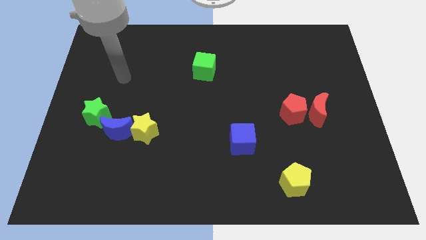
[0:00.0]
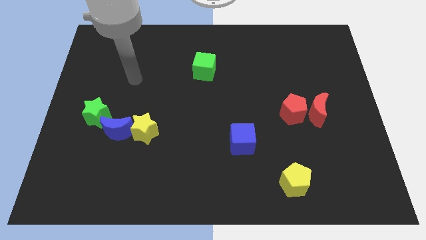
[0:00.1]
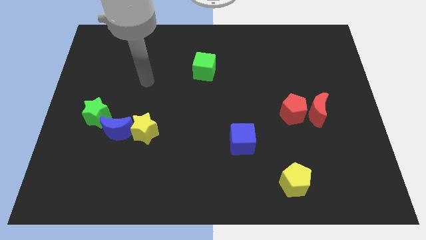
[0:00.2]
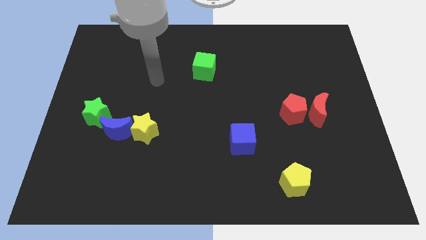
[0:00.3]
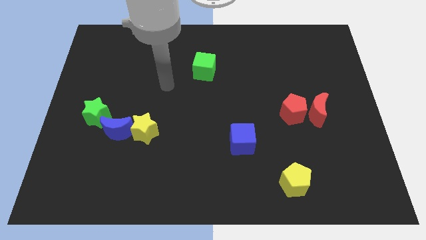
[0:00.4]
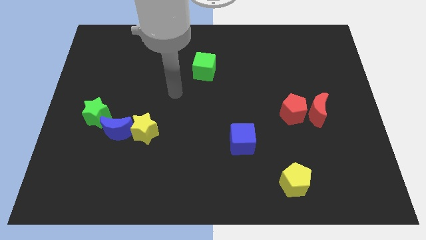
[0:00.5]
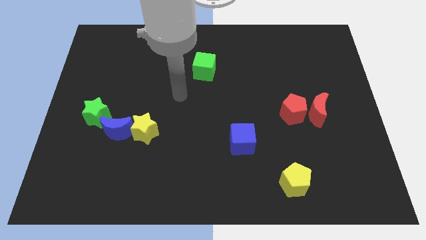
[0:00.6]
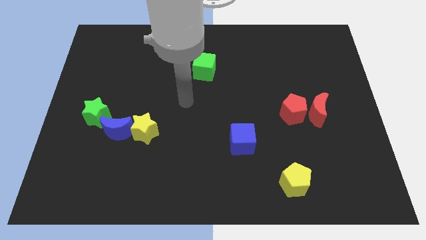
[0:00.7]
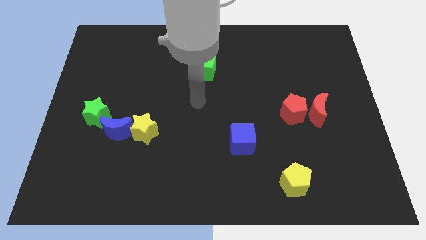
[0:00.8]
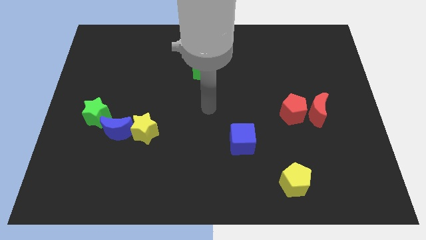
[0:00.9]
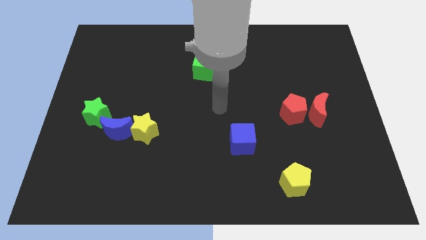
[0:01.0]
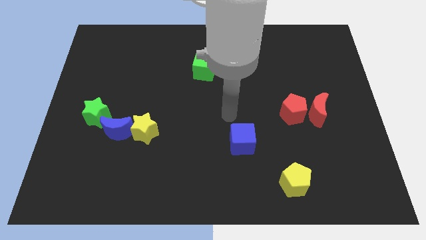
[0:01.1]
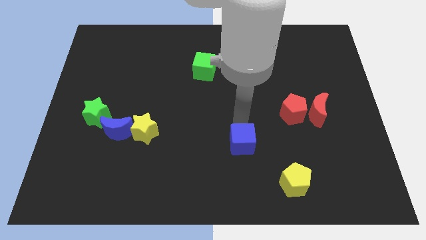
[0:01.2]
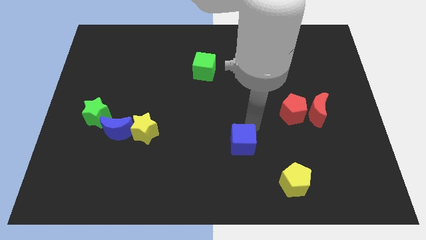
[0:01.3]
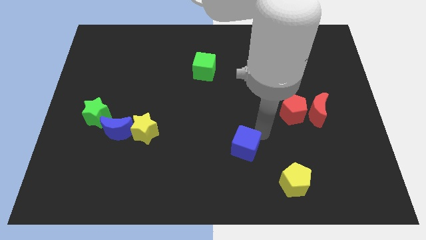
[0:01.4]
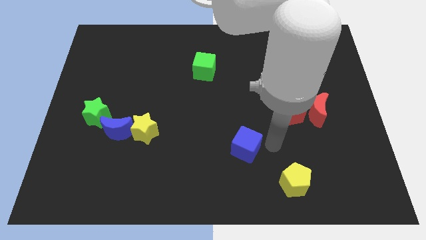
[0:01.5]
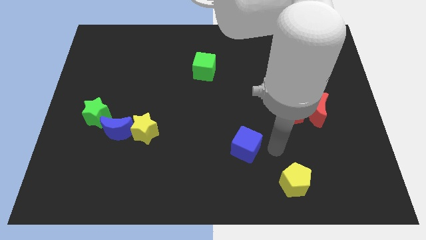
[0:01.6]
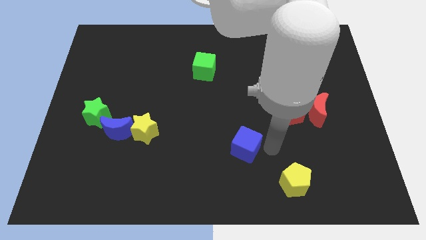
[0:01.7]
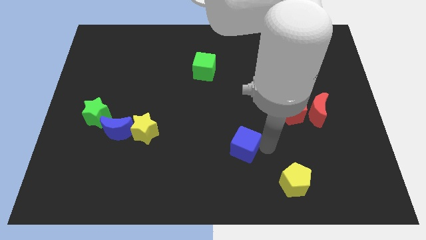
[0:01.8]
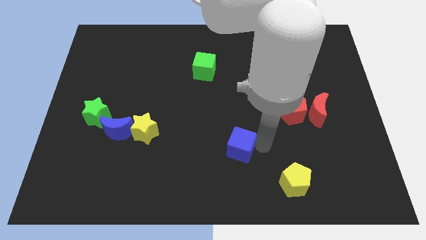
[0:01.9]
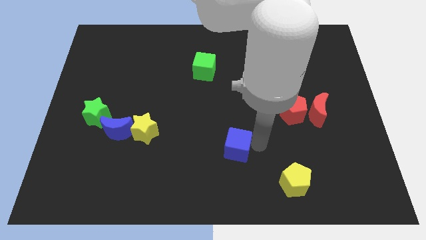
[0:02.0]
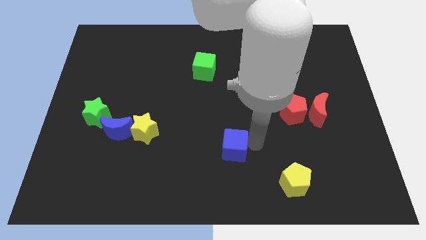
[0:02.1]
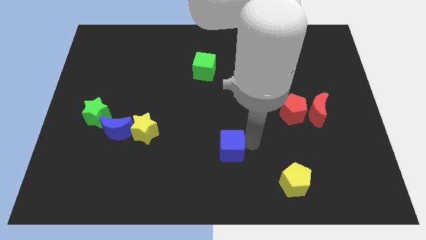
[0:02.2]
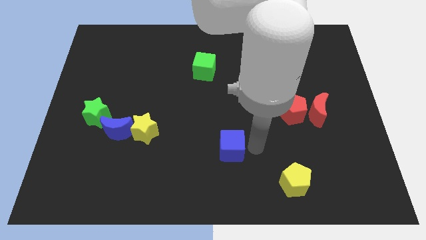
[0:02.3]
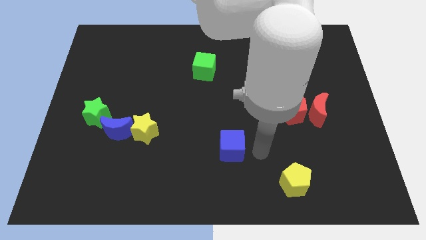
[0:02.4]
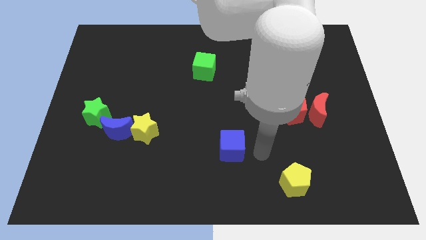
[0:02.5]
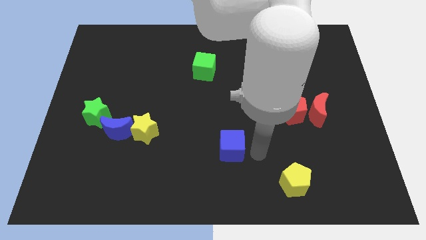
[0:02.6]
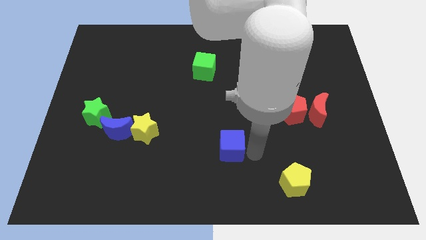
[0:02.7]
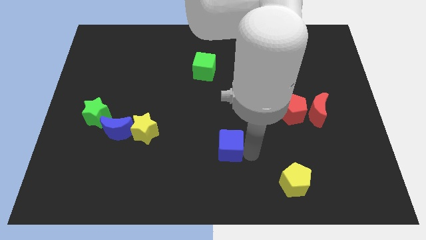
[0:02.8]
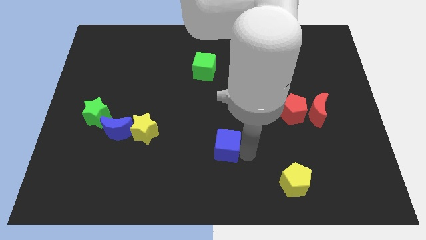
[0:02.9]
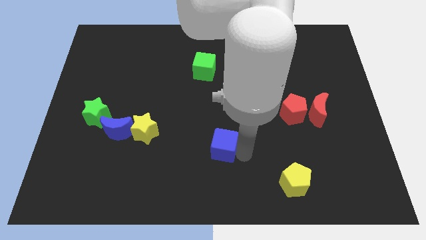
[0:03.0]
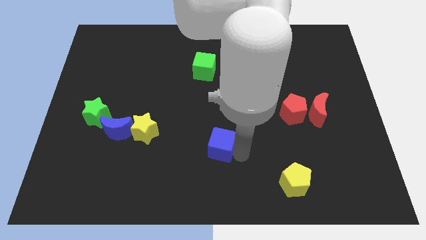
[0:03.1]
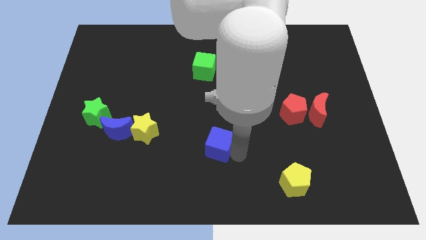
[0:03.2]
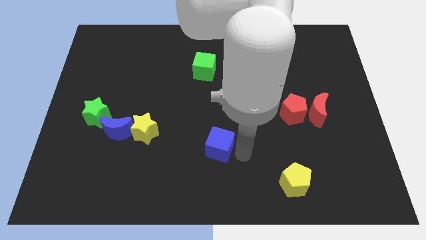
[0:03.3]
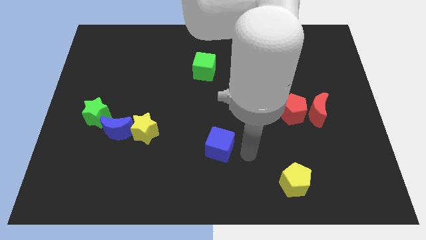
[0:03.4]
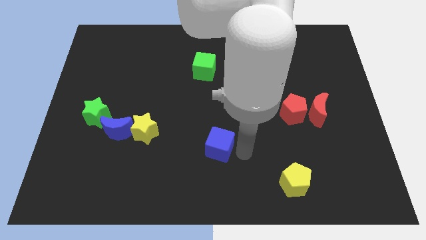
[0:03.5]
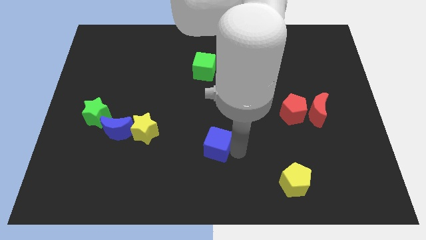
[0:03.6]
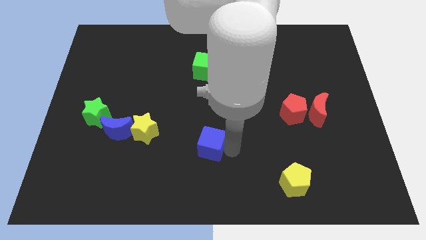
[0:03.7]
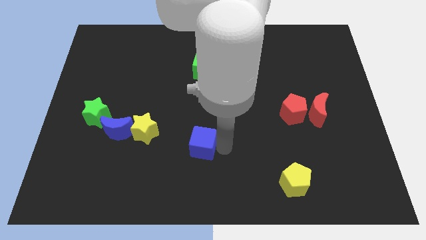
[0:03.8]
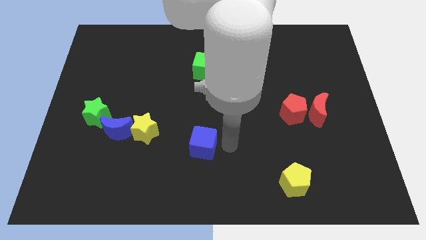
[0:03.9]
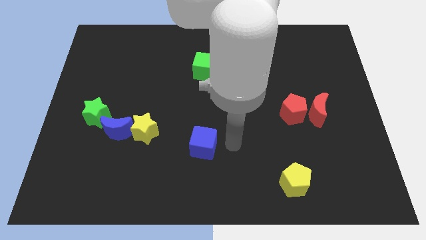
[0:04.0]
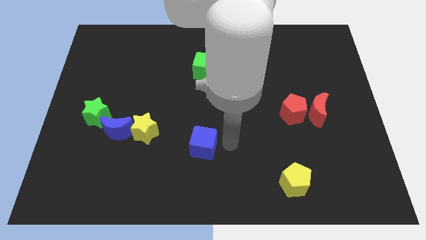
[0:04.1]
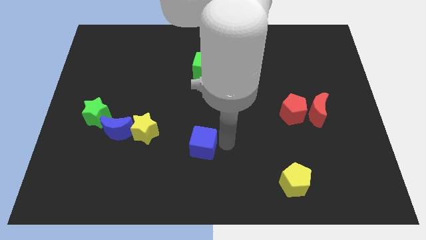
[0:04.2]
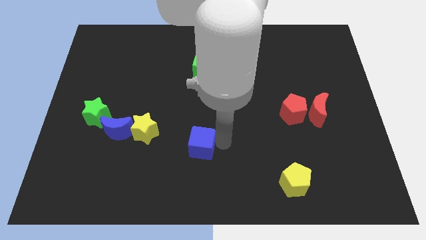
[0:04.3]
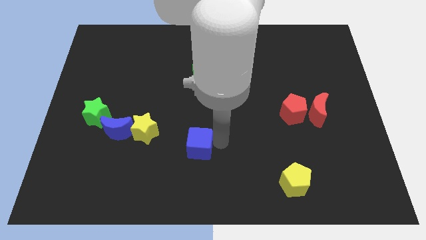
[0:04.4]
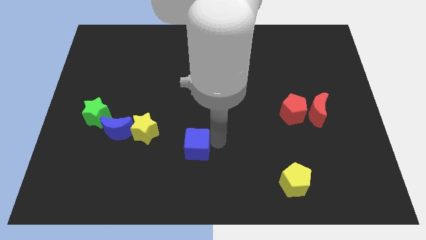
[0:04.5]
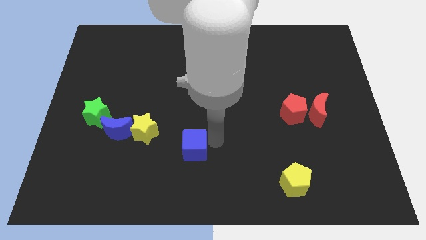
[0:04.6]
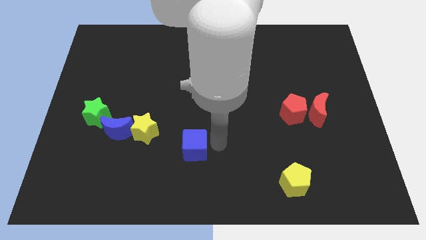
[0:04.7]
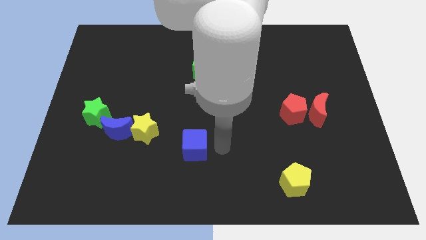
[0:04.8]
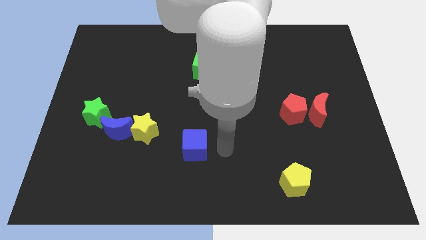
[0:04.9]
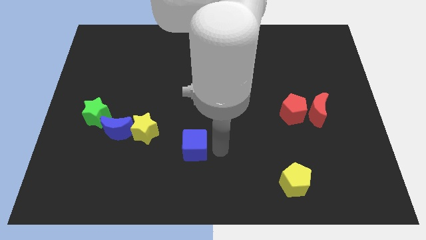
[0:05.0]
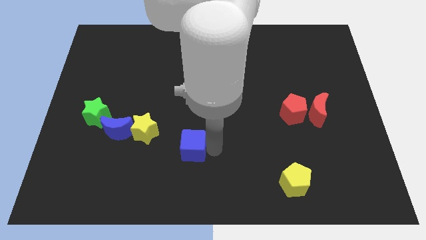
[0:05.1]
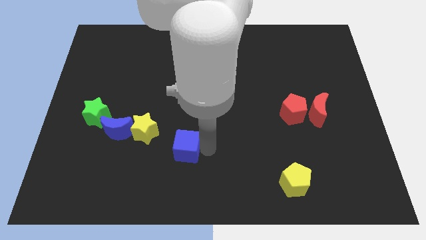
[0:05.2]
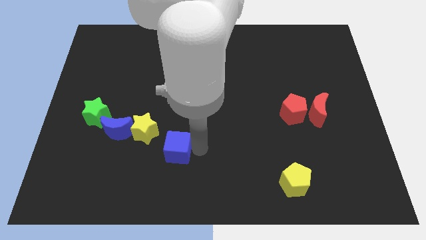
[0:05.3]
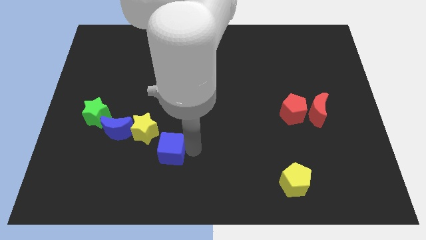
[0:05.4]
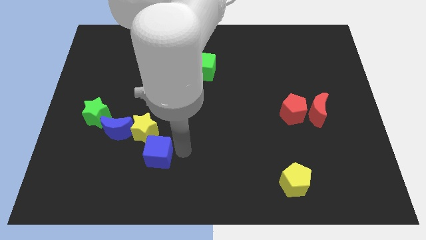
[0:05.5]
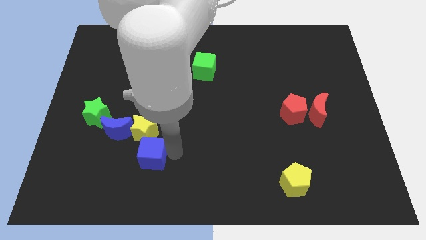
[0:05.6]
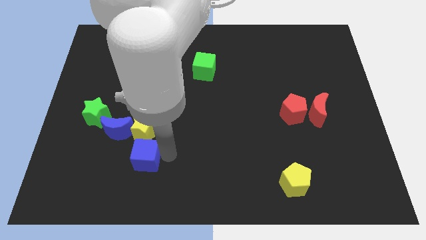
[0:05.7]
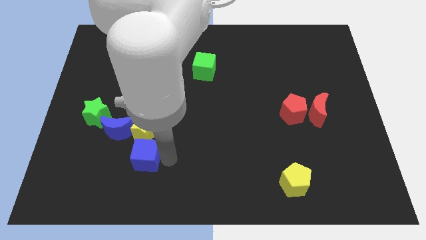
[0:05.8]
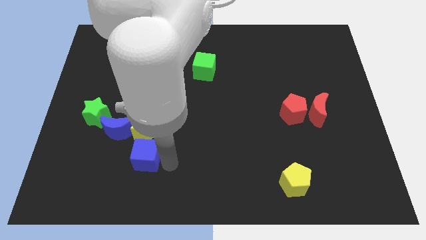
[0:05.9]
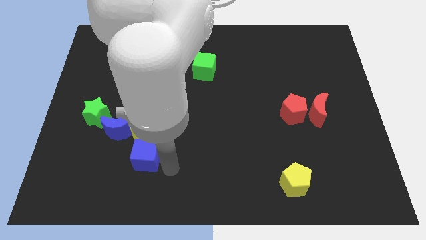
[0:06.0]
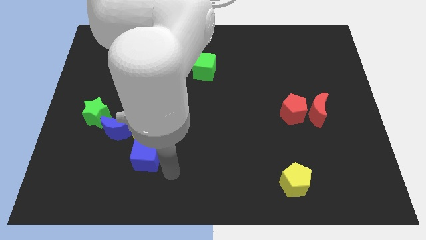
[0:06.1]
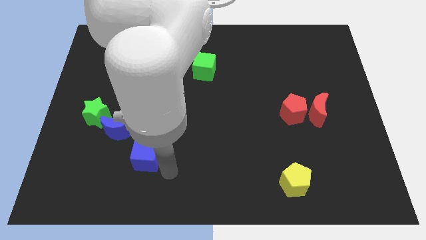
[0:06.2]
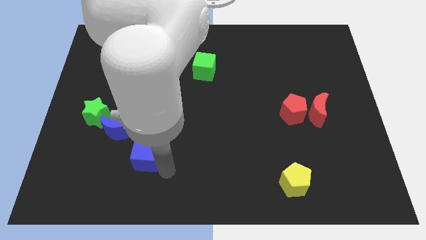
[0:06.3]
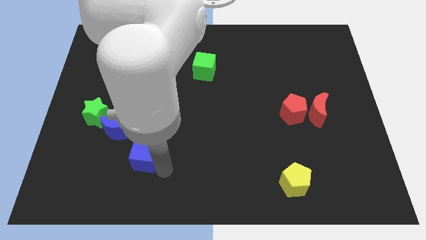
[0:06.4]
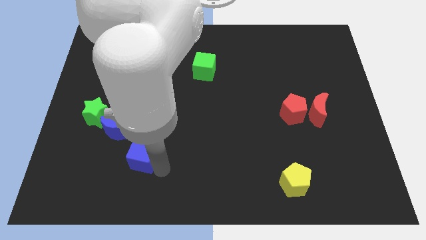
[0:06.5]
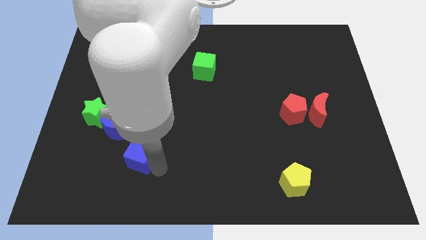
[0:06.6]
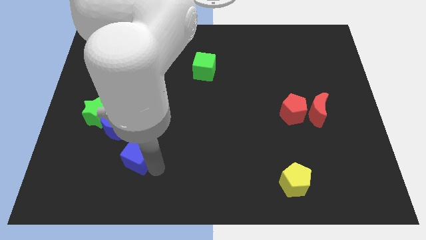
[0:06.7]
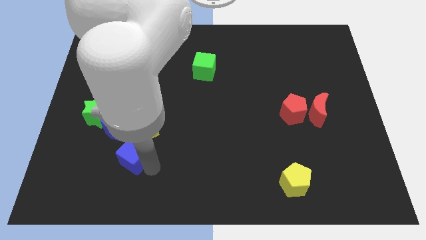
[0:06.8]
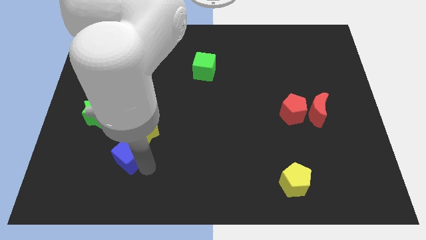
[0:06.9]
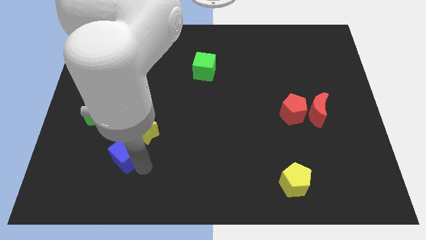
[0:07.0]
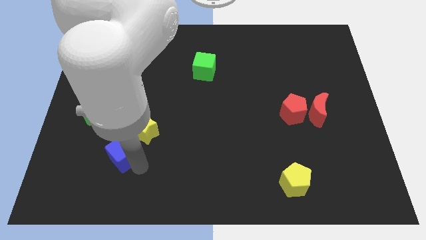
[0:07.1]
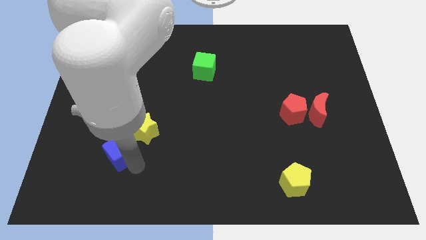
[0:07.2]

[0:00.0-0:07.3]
slide the blue cube diagonally down and to the right of the green star
